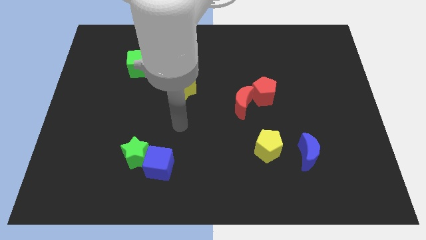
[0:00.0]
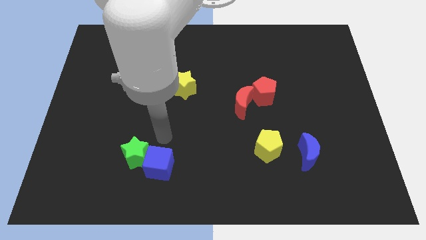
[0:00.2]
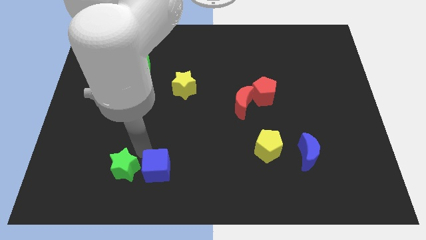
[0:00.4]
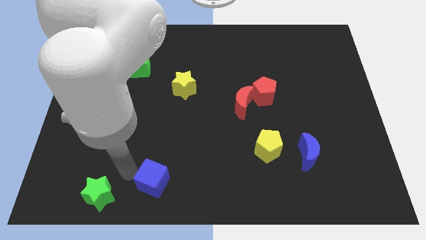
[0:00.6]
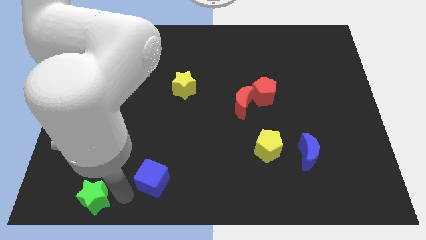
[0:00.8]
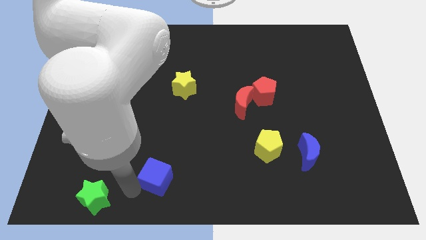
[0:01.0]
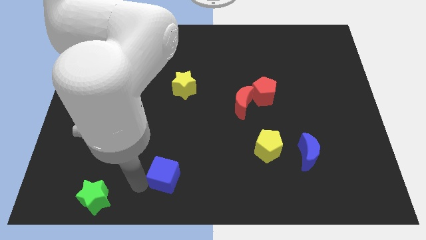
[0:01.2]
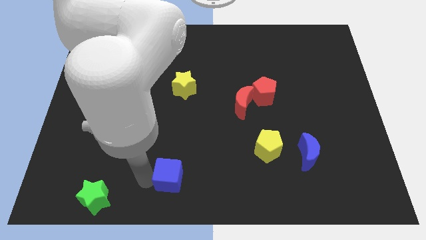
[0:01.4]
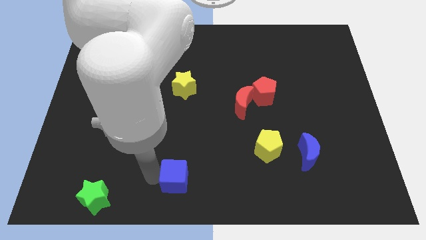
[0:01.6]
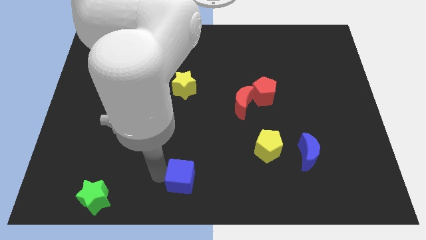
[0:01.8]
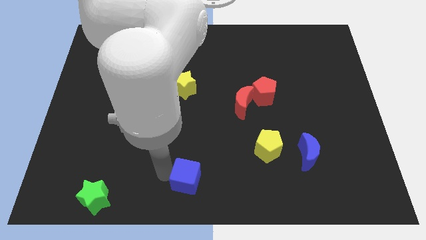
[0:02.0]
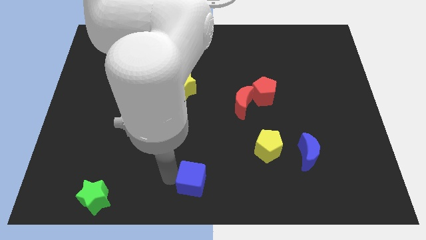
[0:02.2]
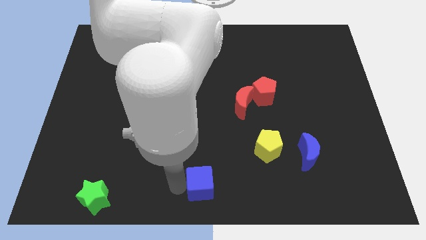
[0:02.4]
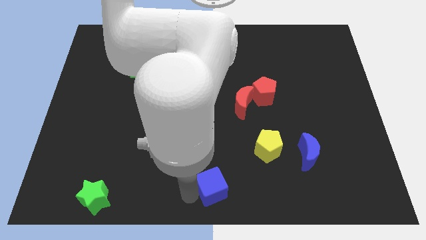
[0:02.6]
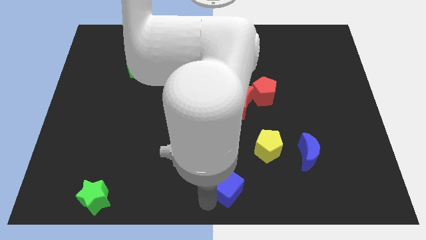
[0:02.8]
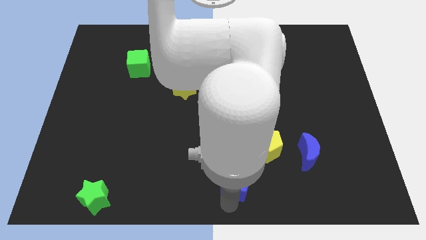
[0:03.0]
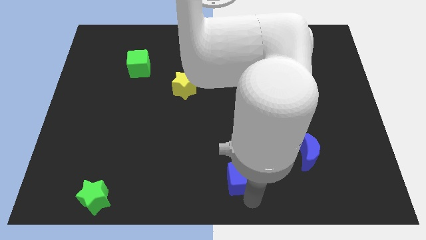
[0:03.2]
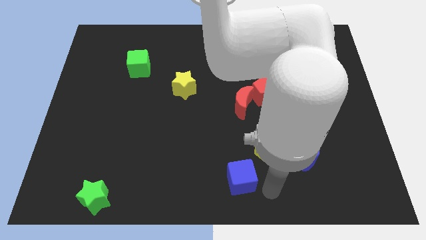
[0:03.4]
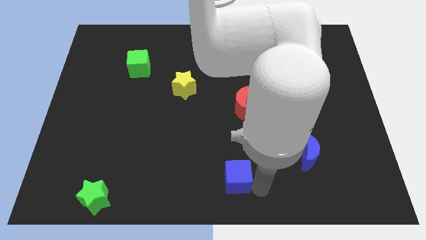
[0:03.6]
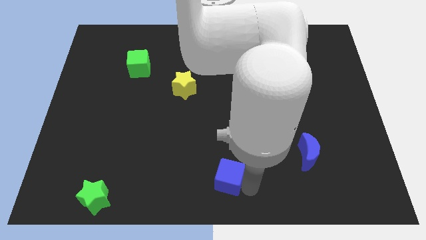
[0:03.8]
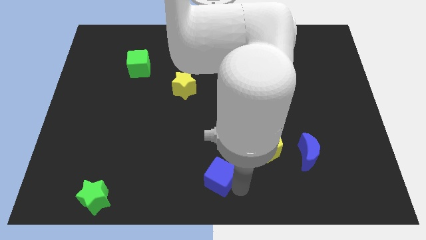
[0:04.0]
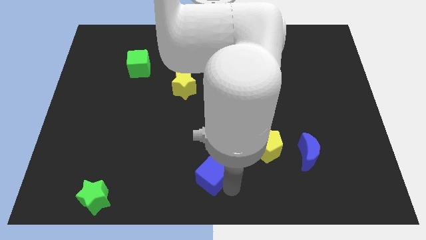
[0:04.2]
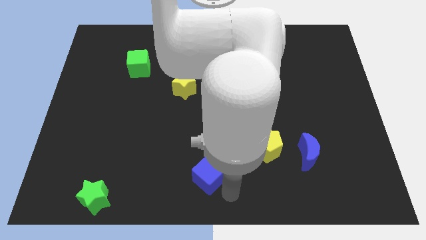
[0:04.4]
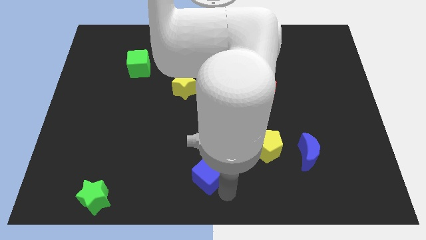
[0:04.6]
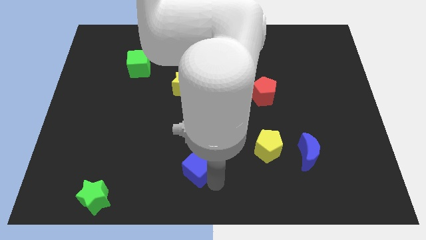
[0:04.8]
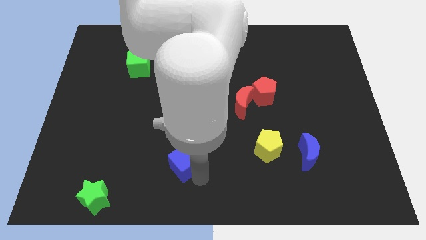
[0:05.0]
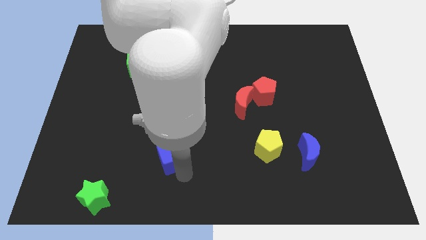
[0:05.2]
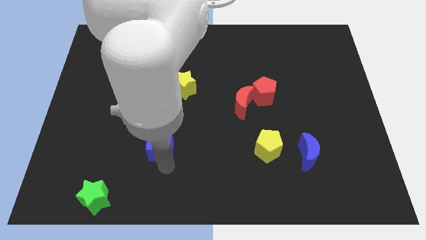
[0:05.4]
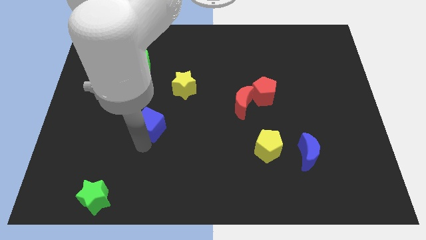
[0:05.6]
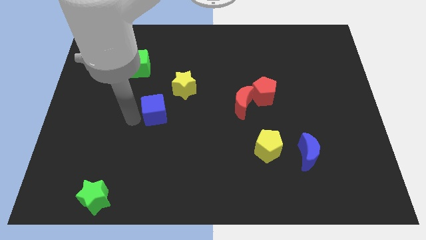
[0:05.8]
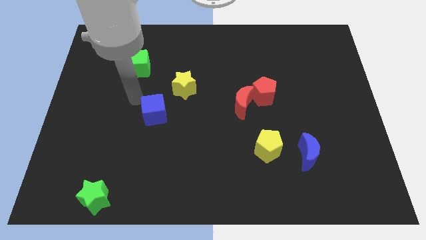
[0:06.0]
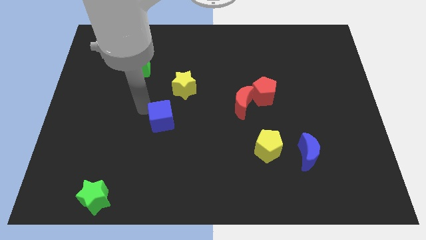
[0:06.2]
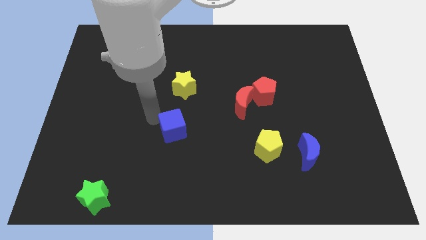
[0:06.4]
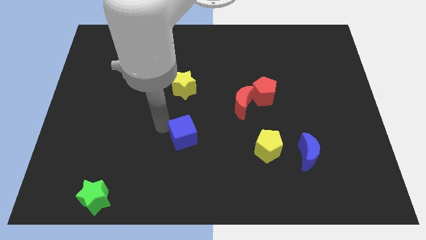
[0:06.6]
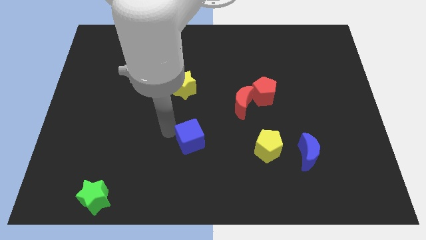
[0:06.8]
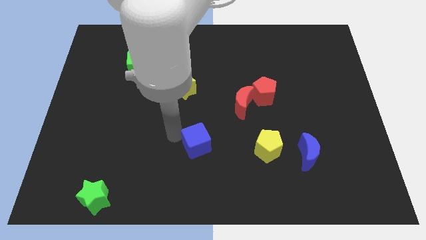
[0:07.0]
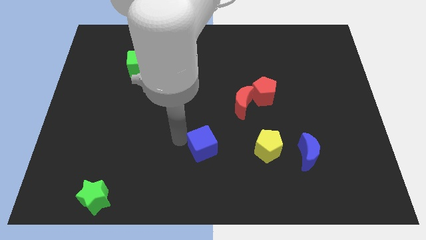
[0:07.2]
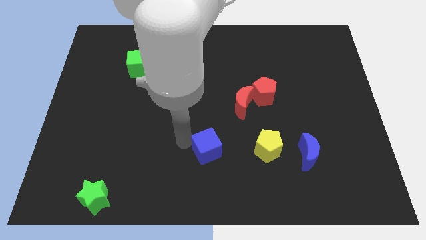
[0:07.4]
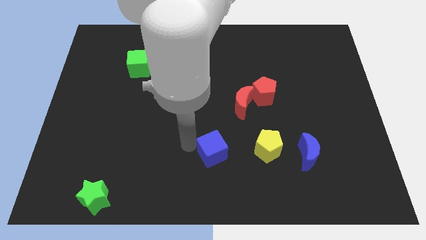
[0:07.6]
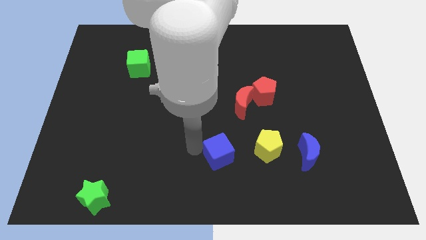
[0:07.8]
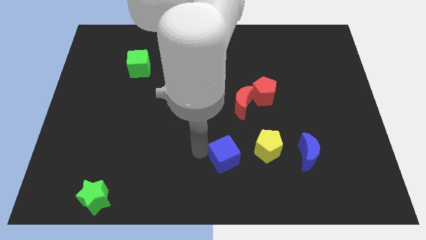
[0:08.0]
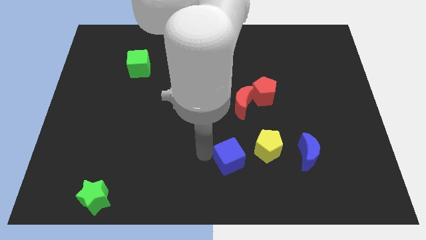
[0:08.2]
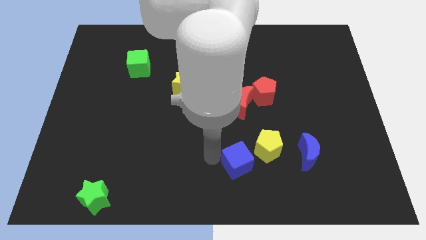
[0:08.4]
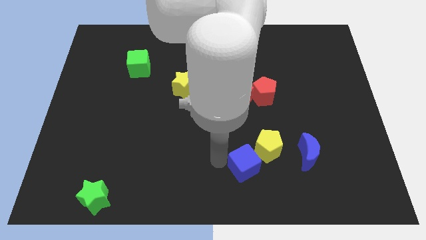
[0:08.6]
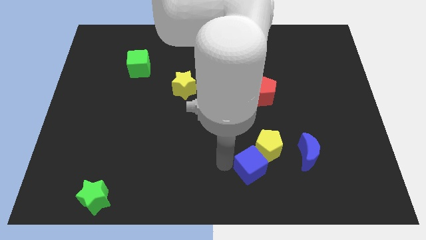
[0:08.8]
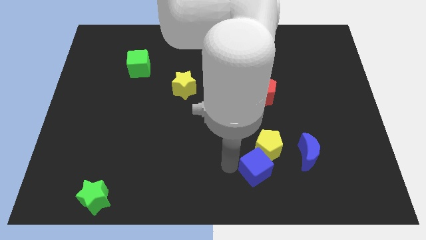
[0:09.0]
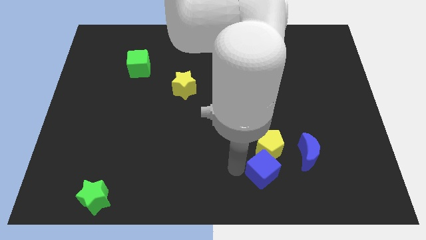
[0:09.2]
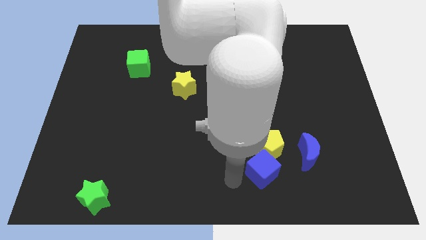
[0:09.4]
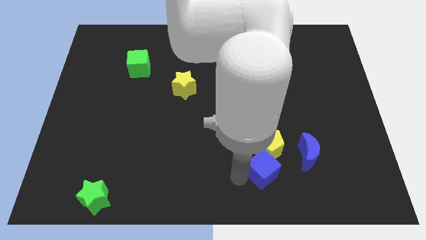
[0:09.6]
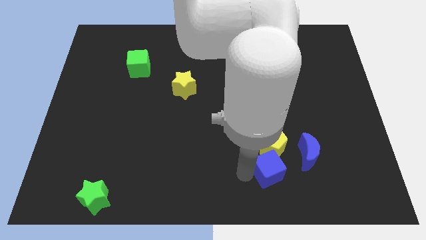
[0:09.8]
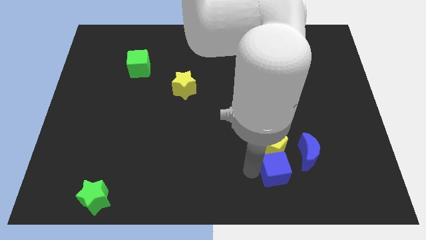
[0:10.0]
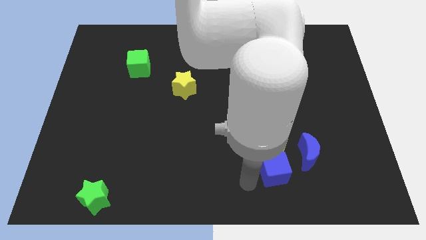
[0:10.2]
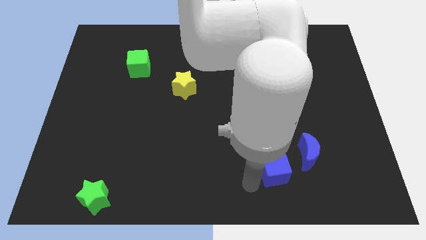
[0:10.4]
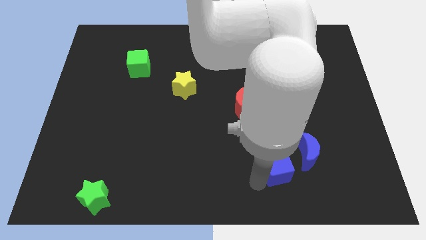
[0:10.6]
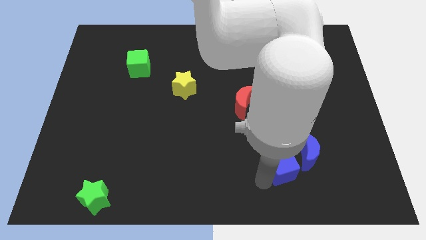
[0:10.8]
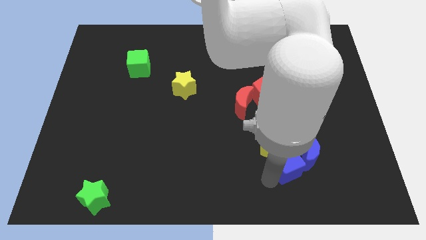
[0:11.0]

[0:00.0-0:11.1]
put the blue cube close to the blue moon

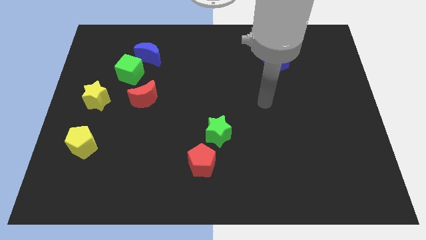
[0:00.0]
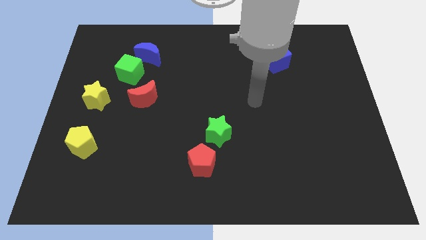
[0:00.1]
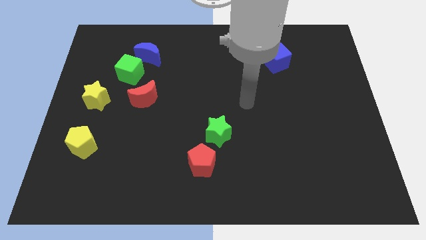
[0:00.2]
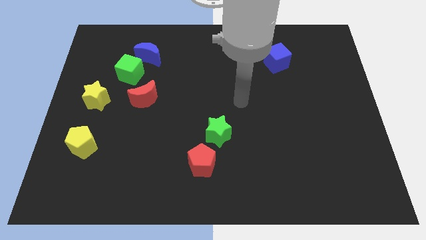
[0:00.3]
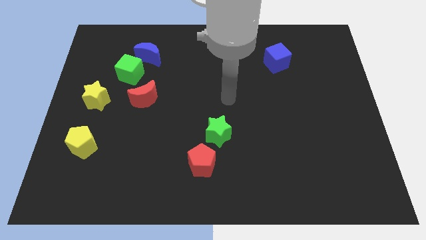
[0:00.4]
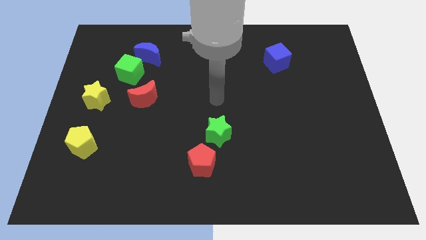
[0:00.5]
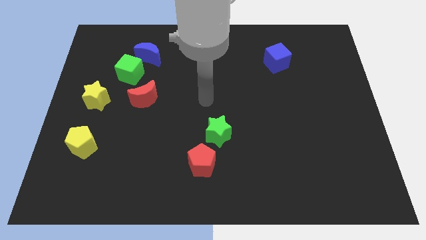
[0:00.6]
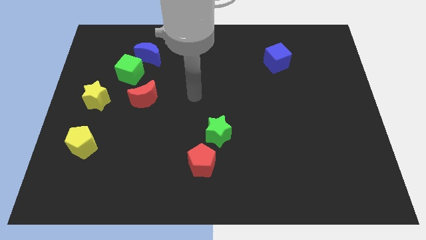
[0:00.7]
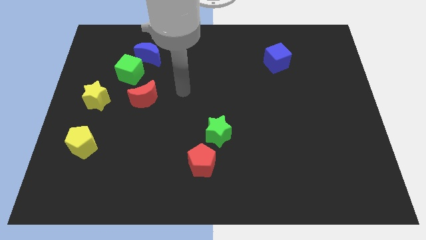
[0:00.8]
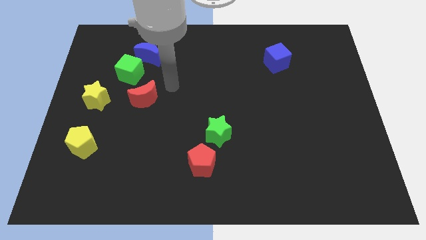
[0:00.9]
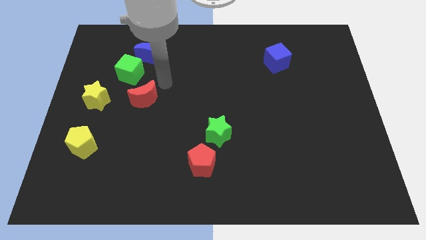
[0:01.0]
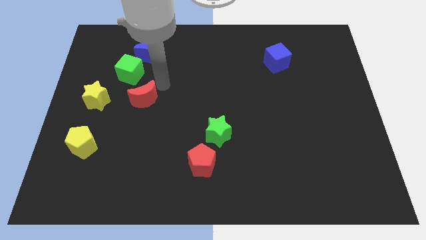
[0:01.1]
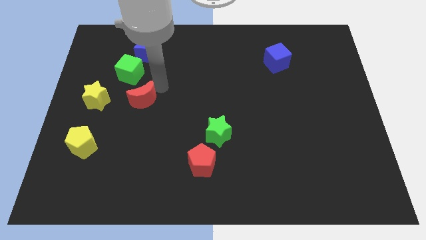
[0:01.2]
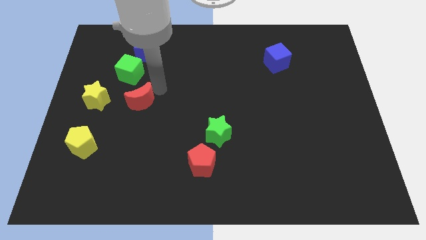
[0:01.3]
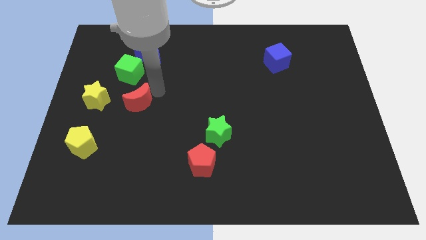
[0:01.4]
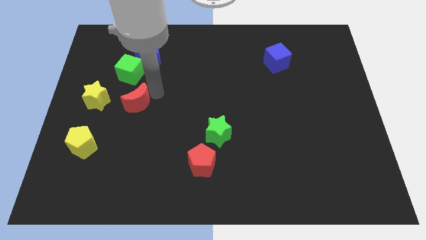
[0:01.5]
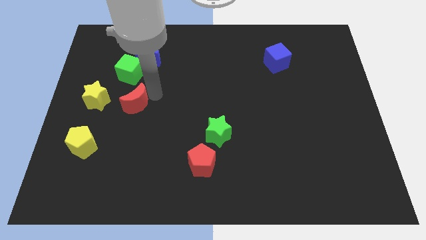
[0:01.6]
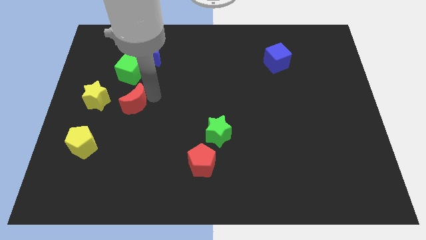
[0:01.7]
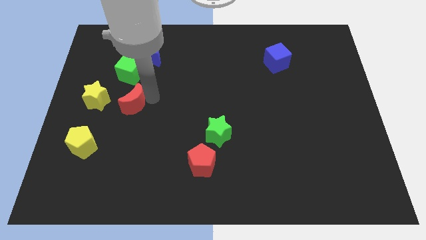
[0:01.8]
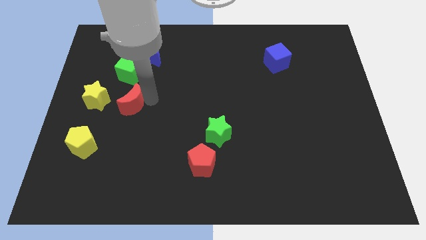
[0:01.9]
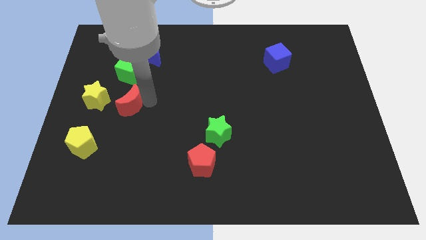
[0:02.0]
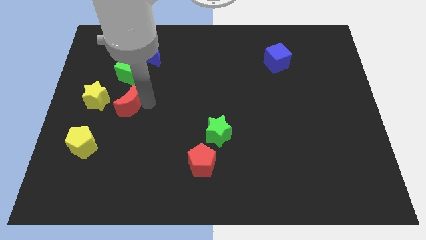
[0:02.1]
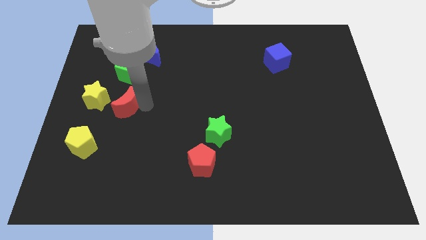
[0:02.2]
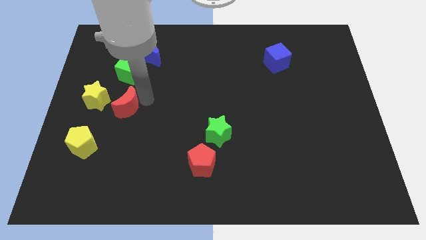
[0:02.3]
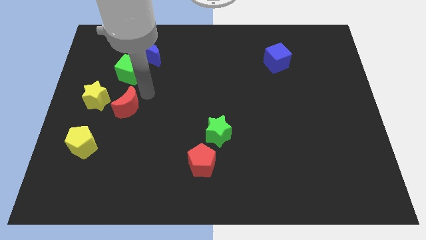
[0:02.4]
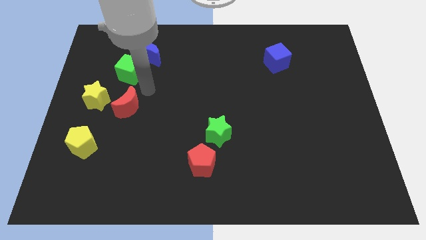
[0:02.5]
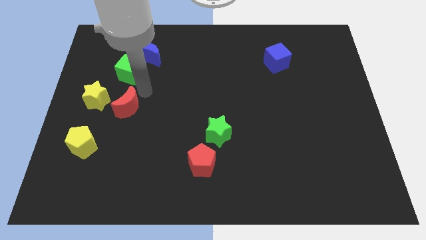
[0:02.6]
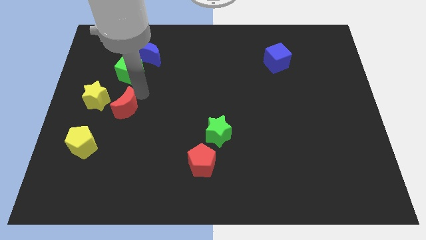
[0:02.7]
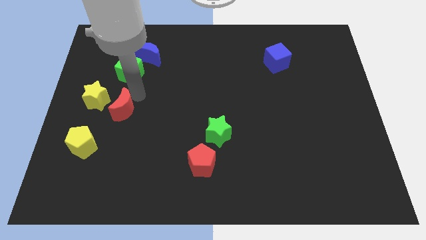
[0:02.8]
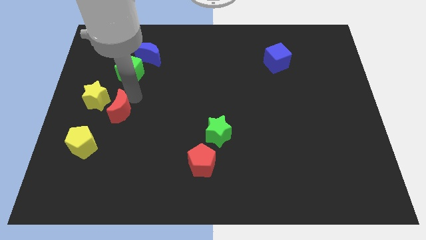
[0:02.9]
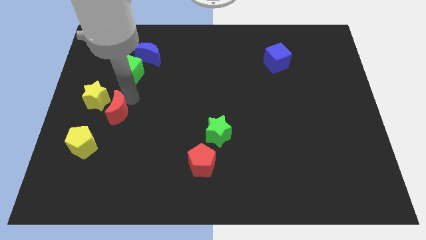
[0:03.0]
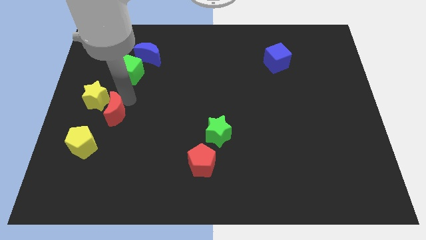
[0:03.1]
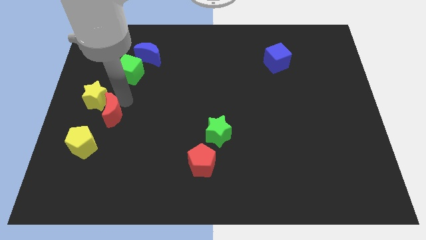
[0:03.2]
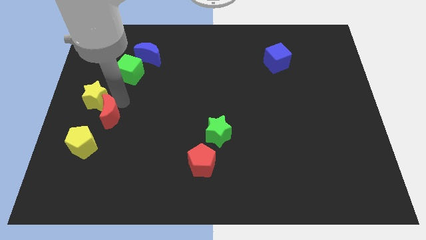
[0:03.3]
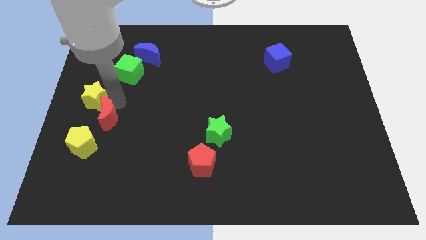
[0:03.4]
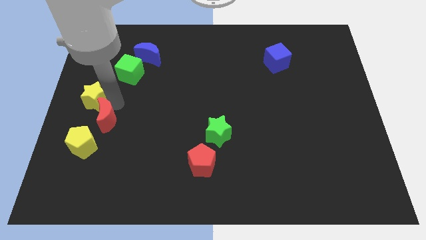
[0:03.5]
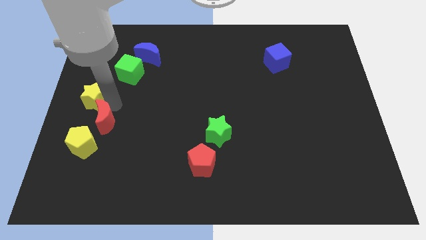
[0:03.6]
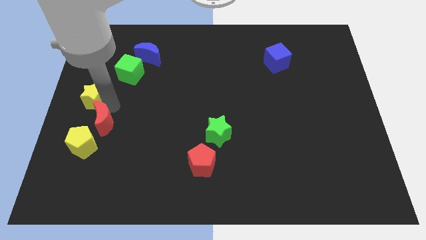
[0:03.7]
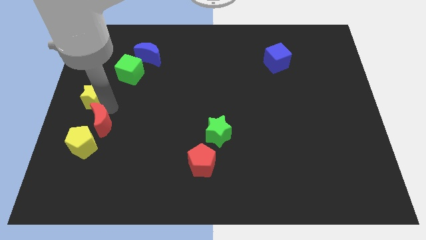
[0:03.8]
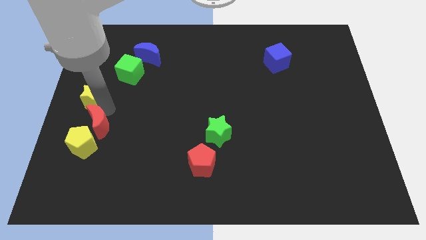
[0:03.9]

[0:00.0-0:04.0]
push the red moon close to the yellow pentagon
